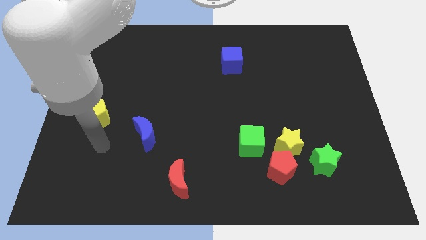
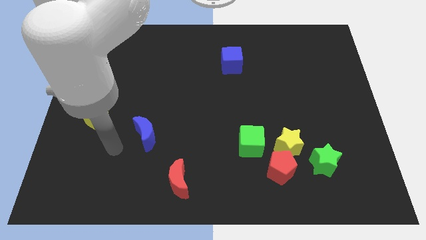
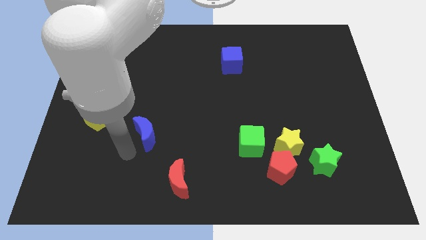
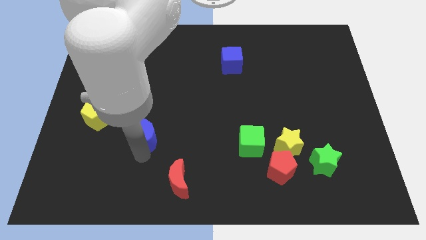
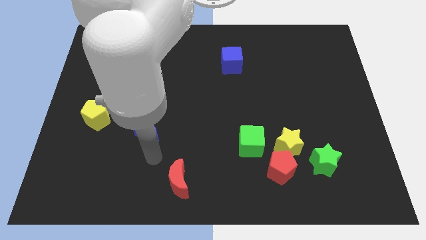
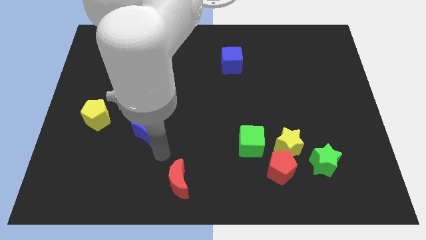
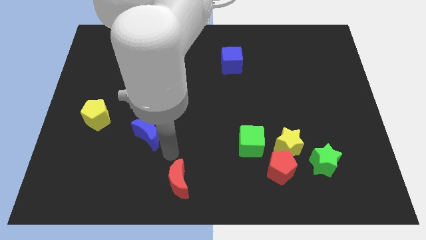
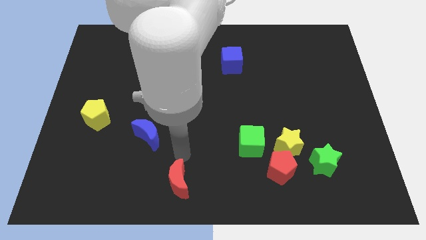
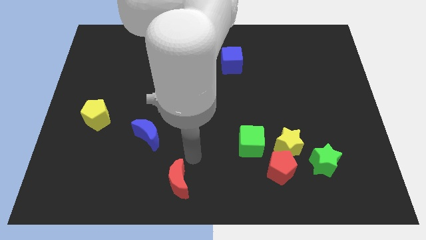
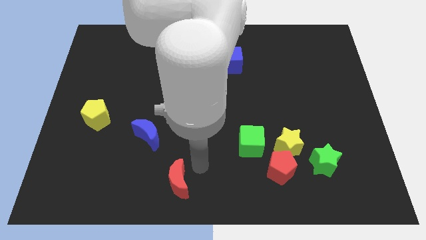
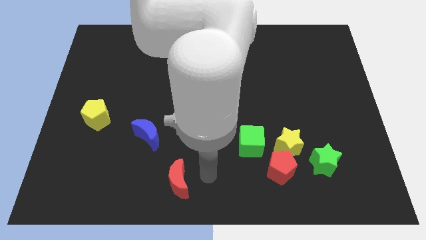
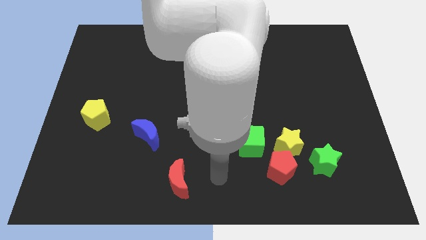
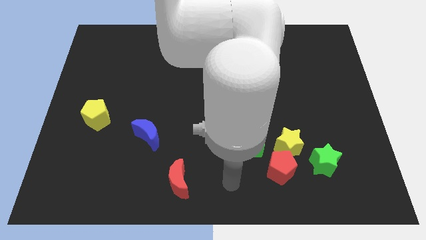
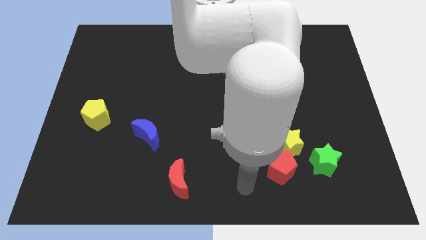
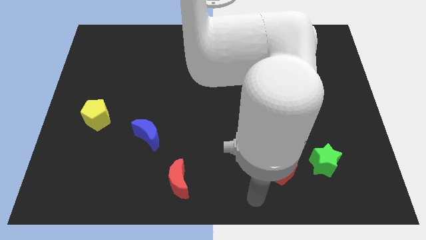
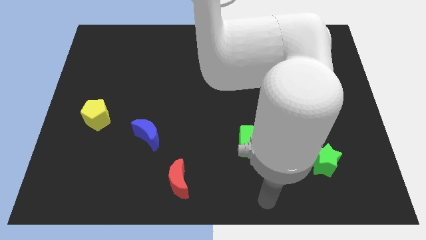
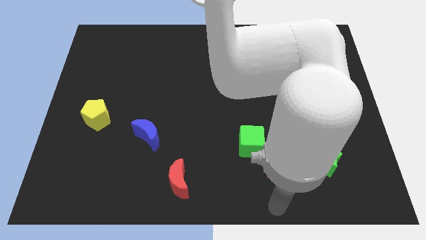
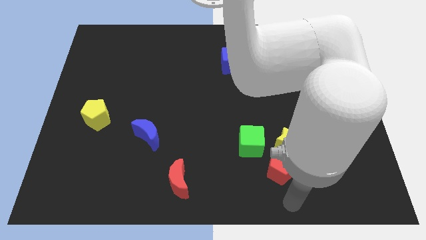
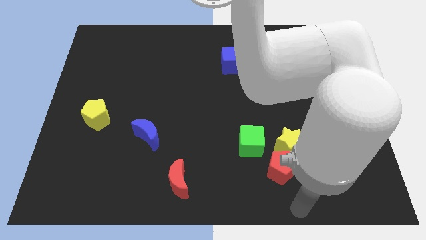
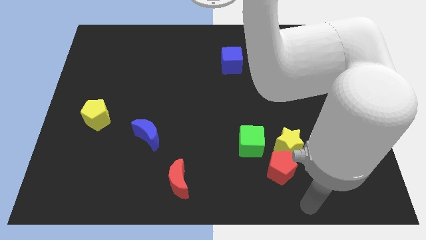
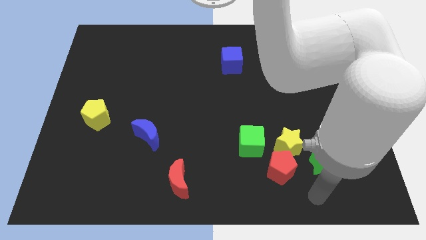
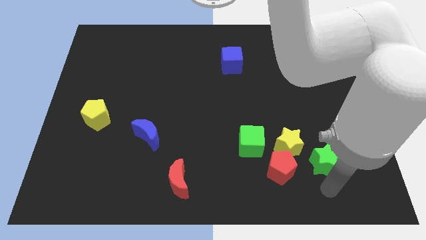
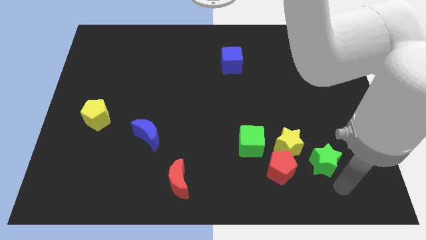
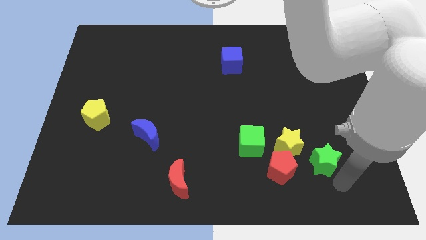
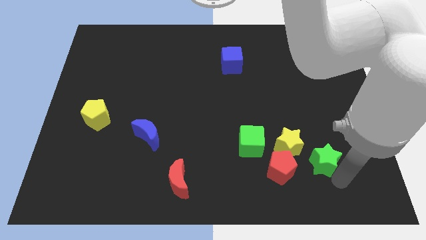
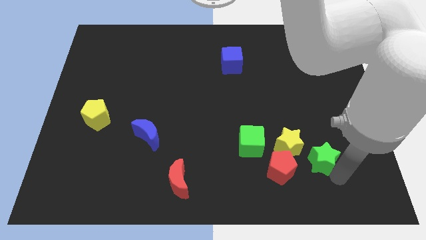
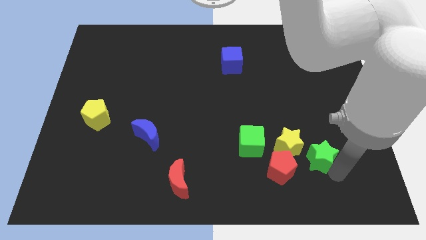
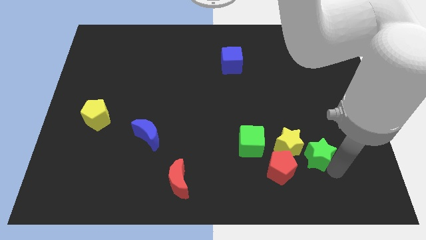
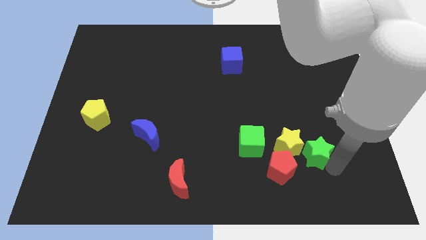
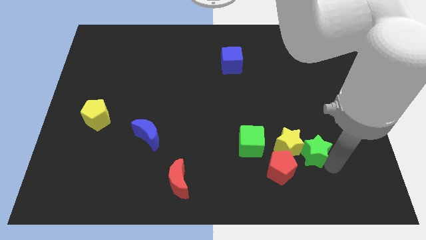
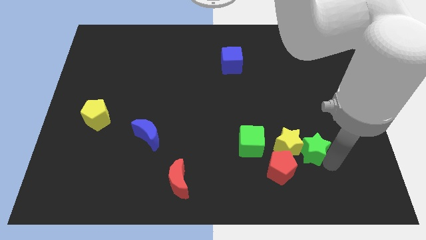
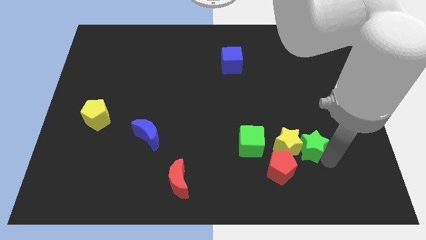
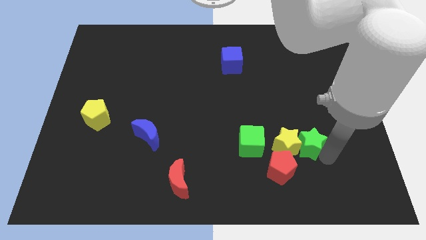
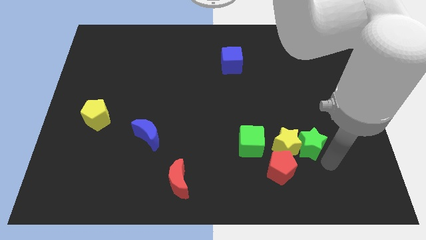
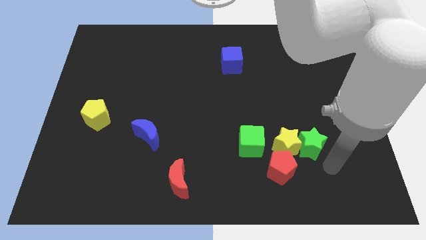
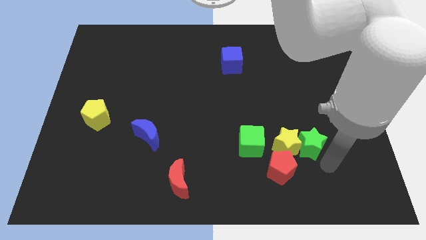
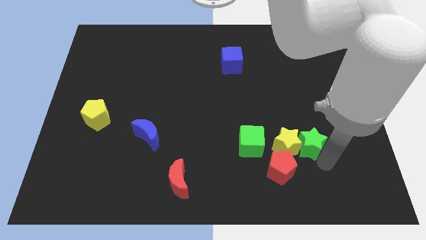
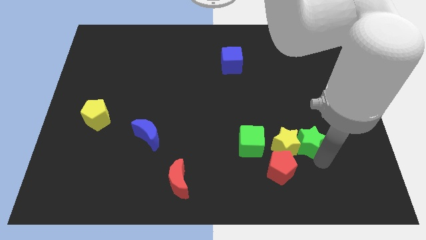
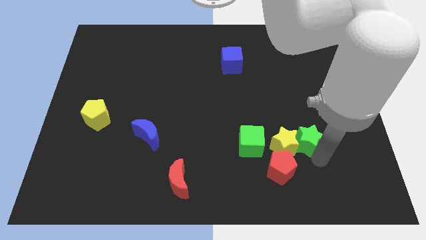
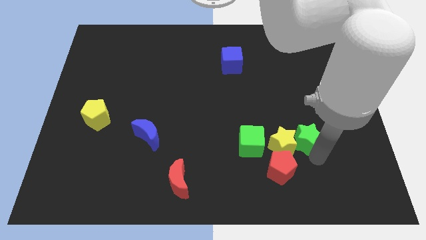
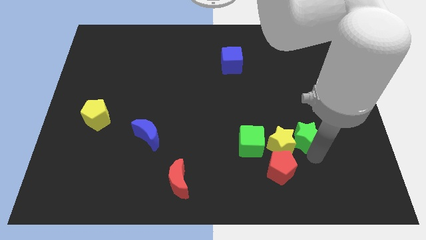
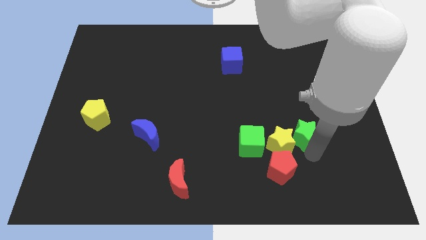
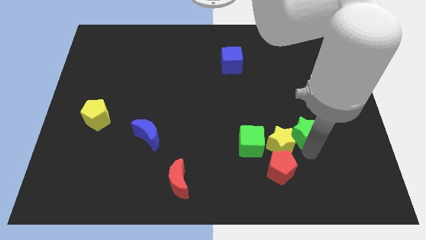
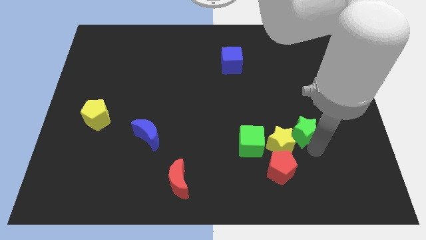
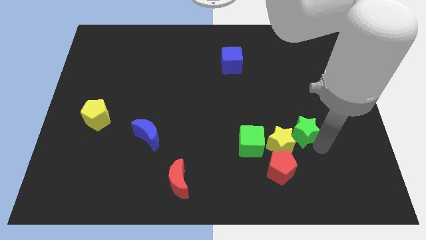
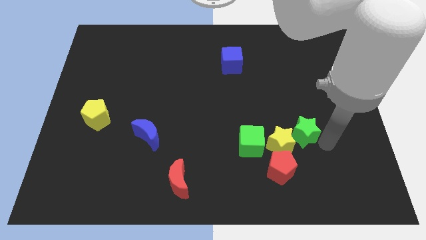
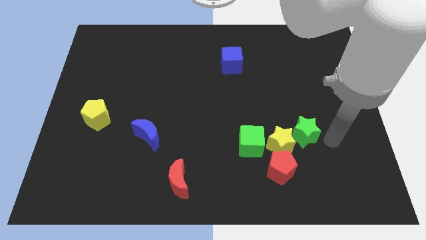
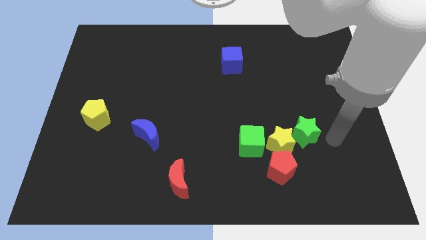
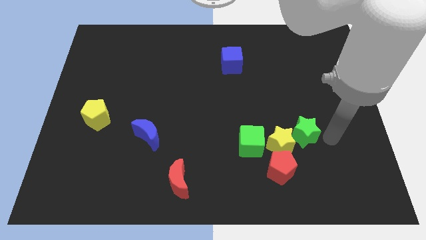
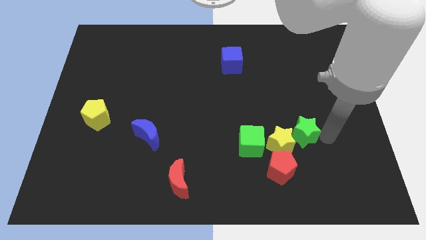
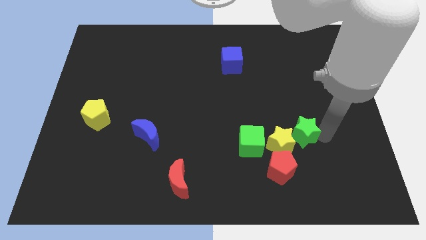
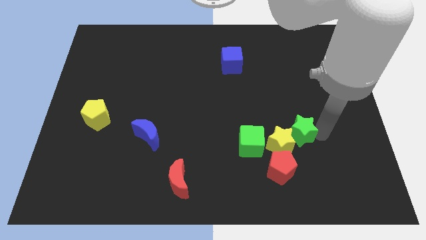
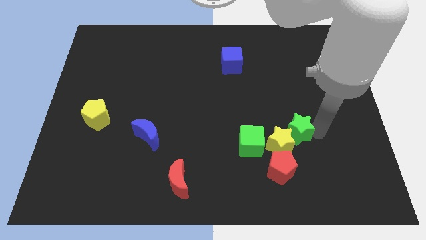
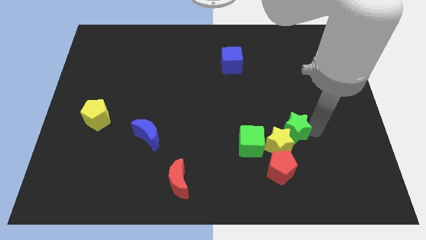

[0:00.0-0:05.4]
slide the green star to the top of the red pentagon

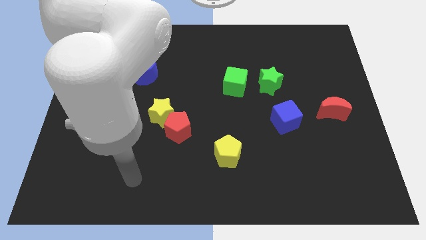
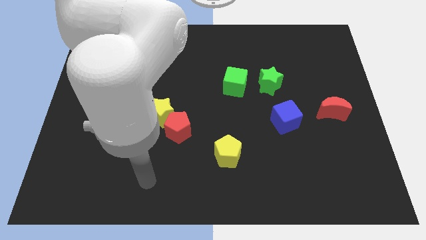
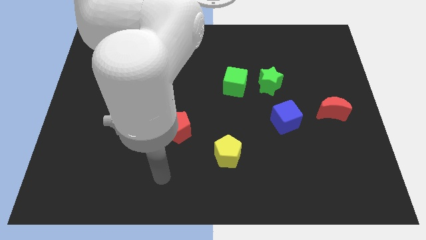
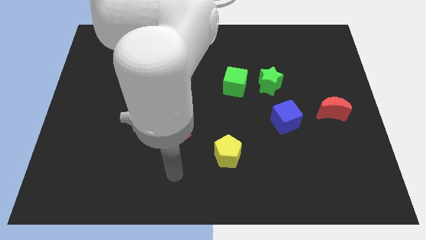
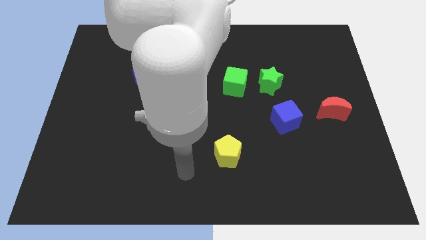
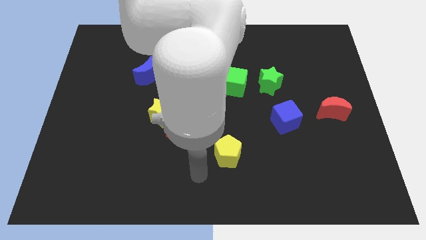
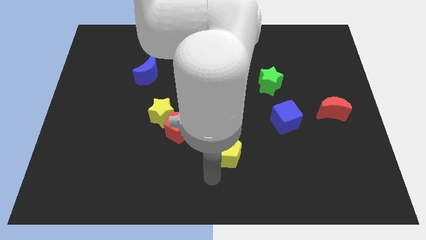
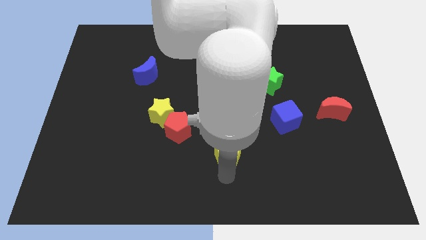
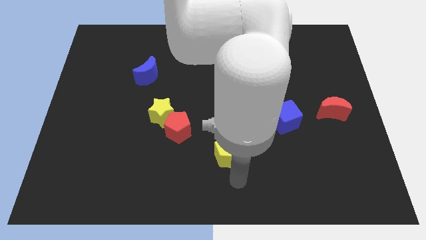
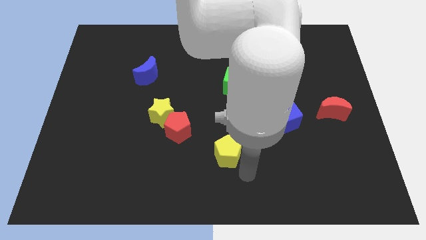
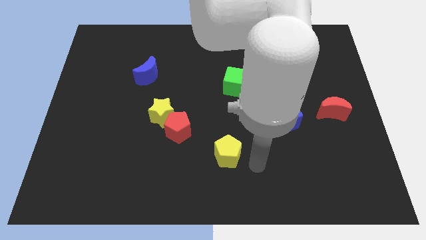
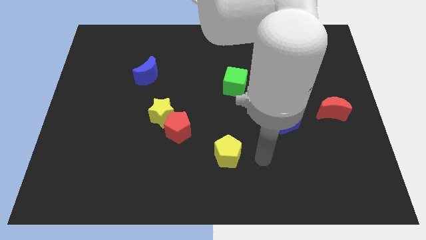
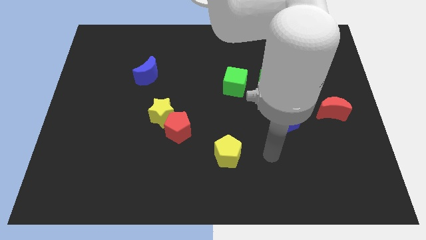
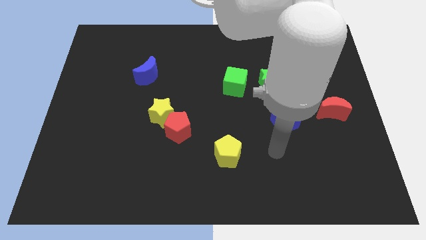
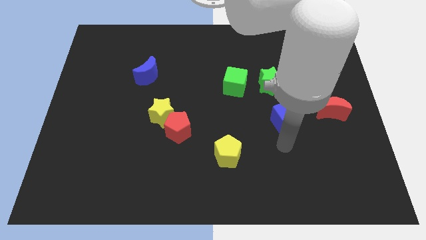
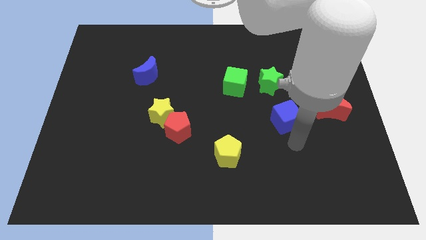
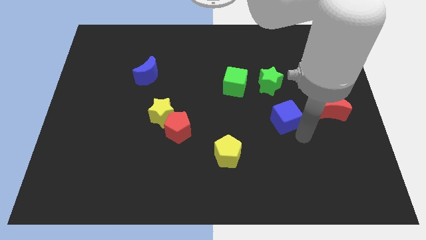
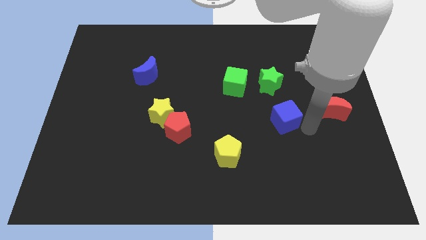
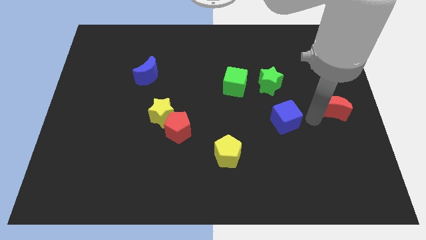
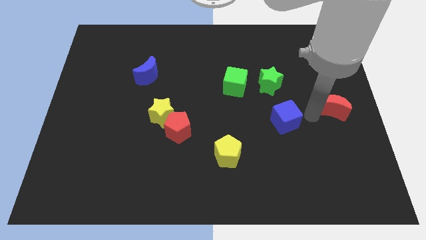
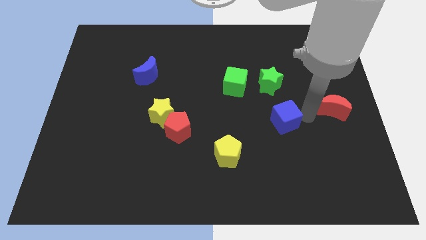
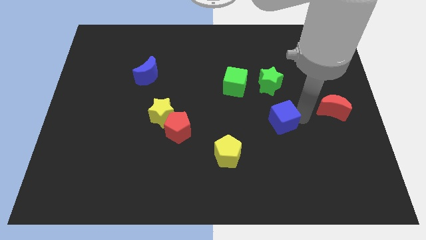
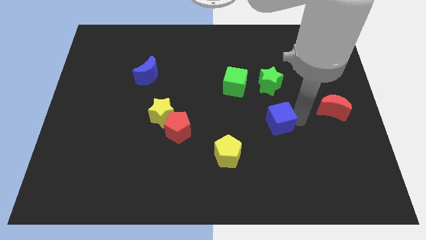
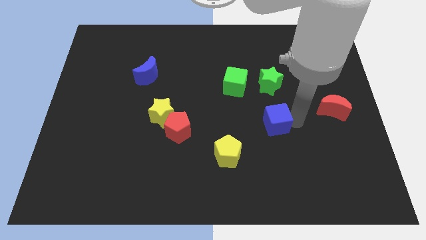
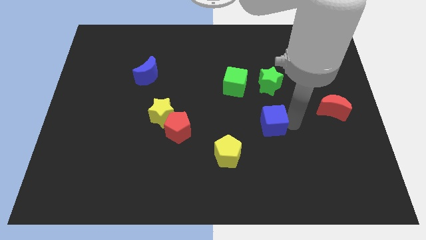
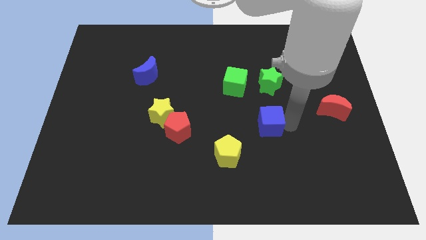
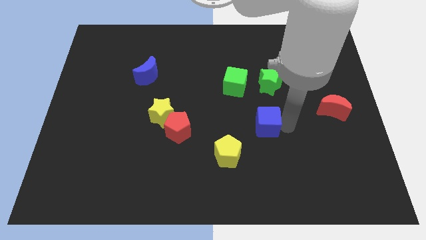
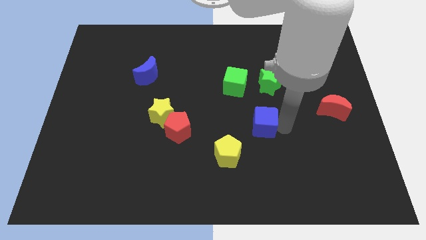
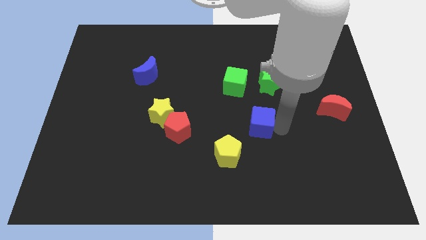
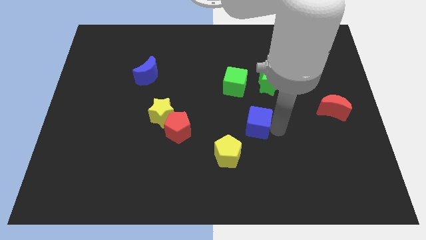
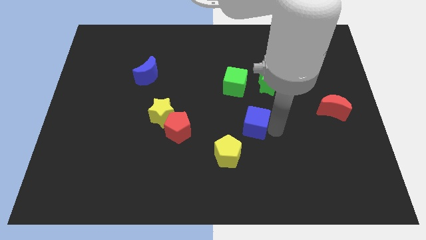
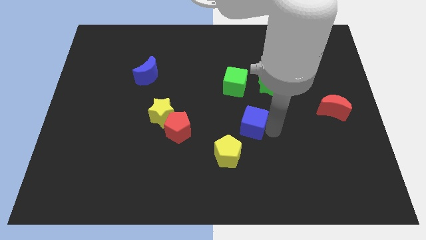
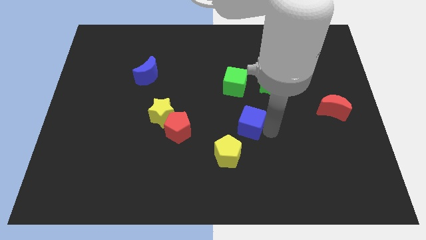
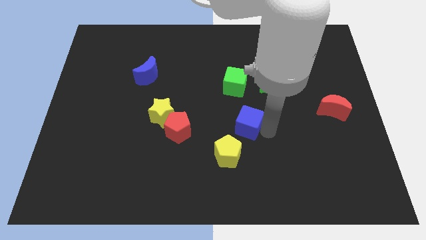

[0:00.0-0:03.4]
push the blue cube to the top of the yellow pentagon
